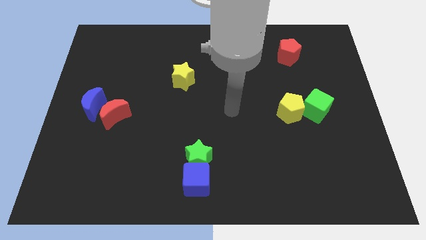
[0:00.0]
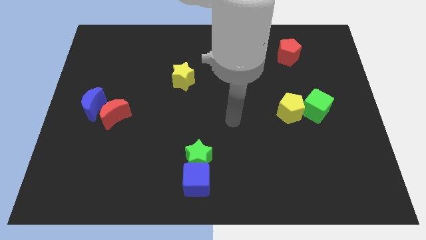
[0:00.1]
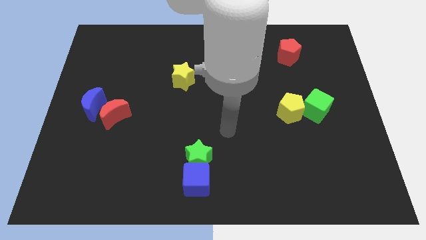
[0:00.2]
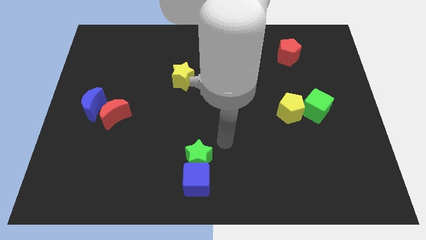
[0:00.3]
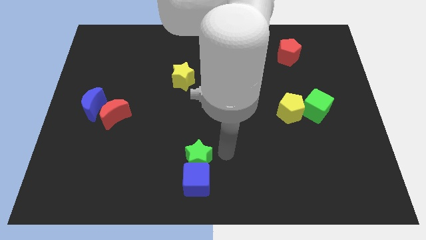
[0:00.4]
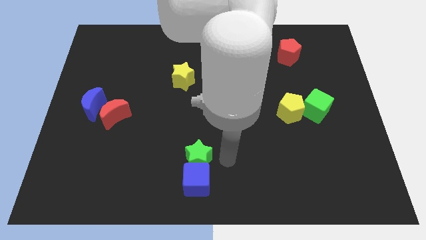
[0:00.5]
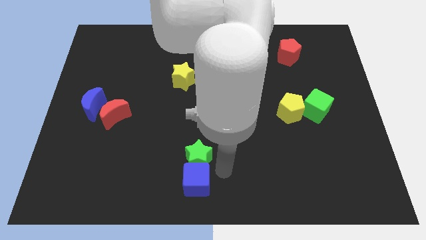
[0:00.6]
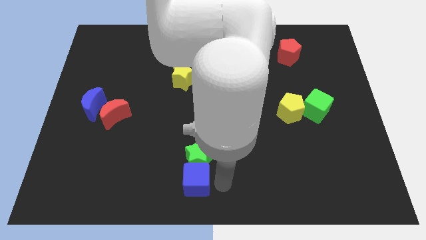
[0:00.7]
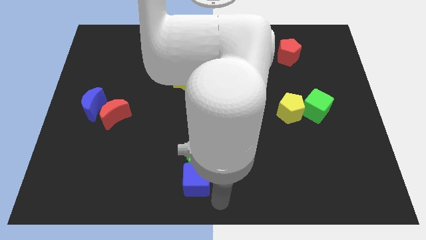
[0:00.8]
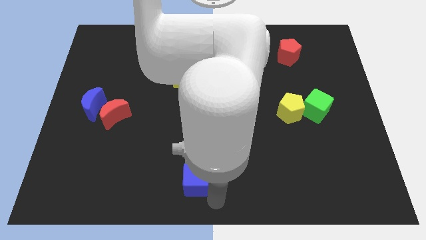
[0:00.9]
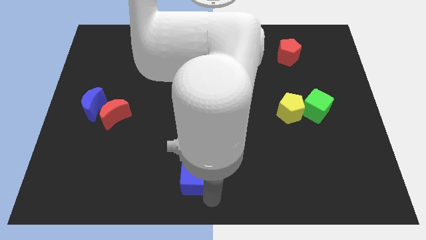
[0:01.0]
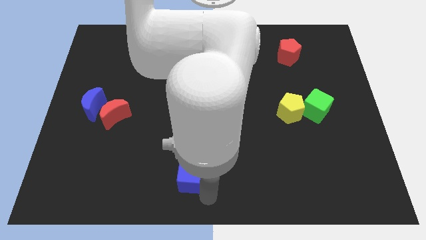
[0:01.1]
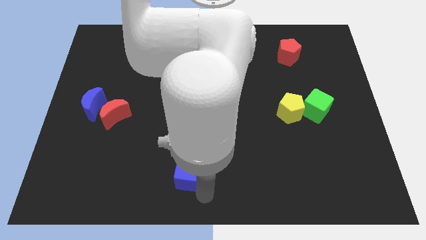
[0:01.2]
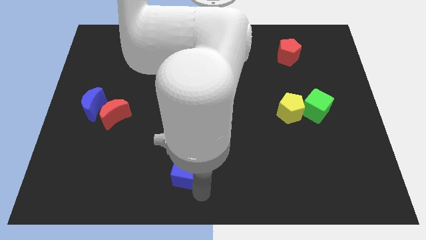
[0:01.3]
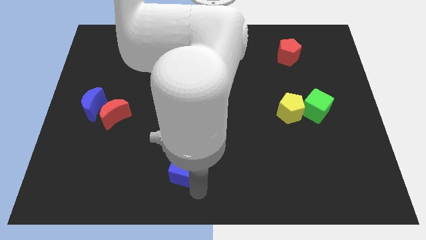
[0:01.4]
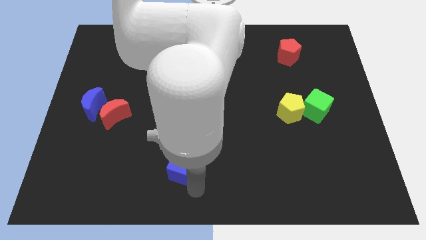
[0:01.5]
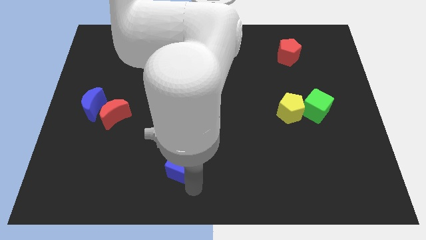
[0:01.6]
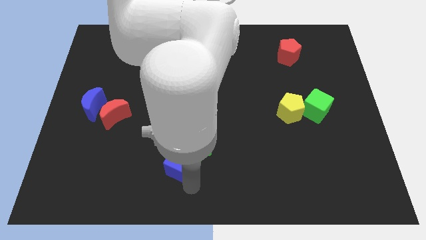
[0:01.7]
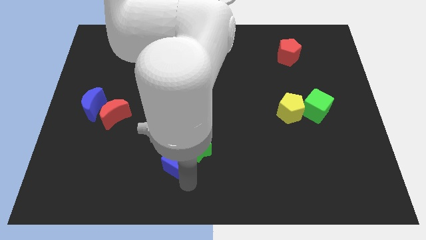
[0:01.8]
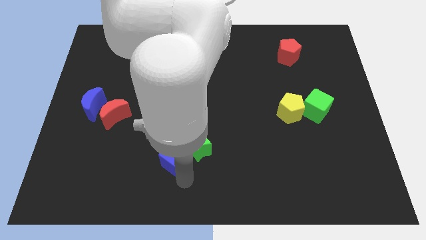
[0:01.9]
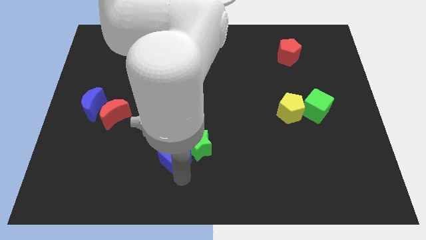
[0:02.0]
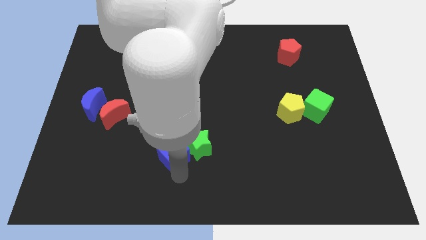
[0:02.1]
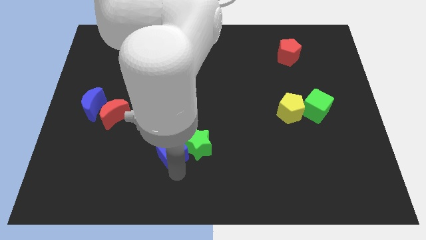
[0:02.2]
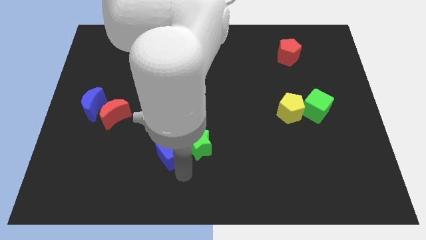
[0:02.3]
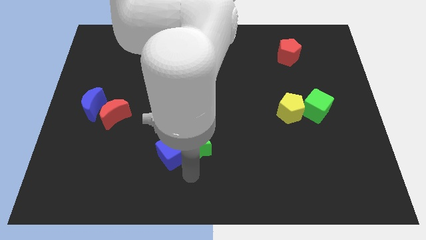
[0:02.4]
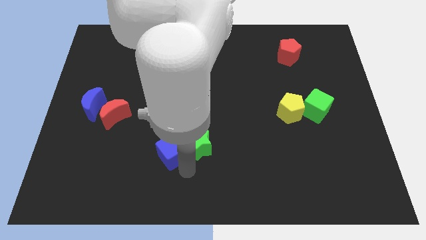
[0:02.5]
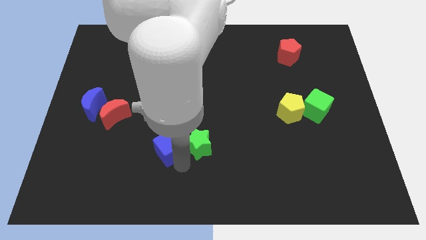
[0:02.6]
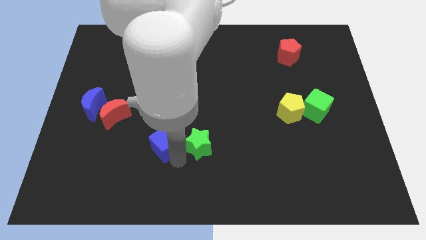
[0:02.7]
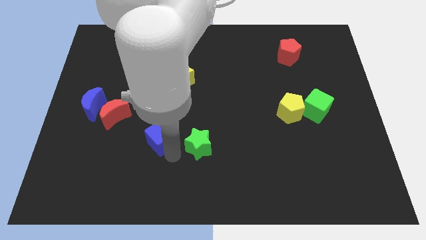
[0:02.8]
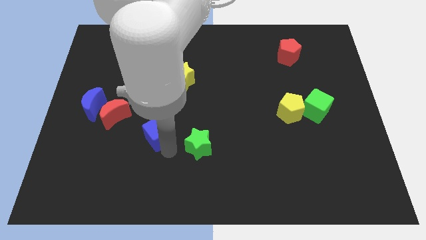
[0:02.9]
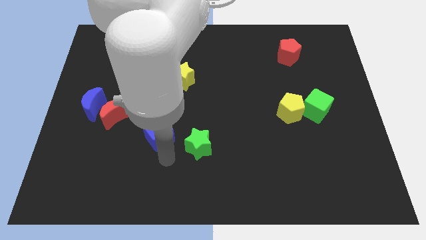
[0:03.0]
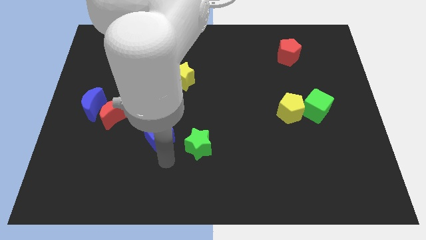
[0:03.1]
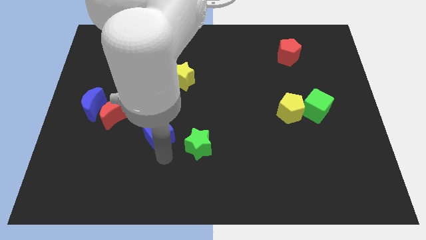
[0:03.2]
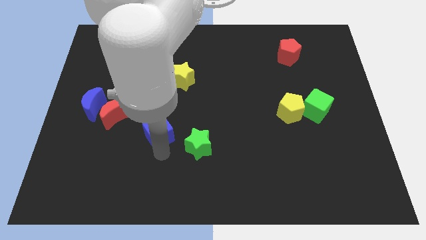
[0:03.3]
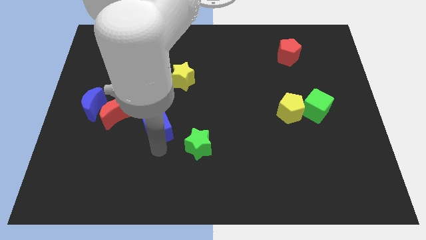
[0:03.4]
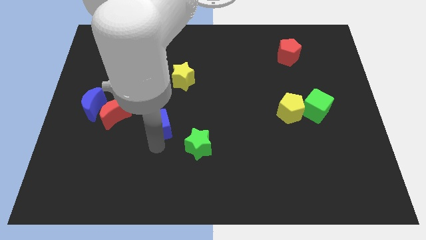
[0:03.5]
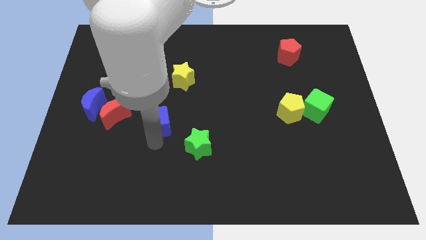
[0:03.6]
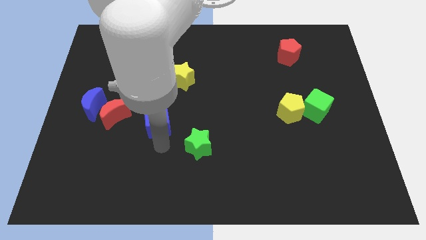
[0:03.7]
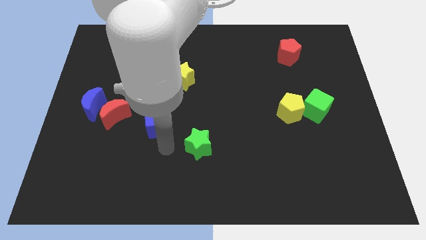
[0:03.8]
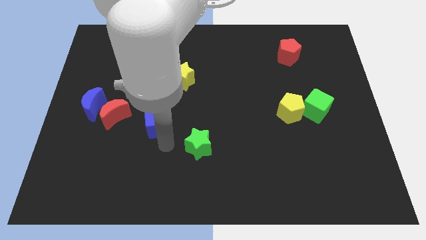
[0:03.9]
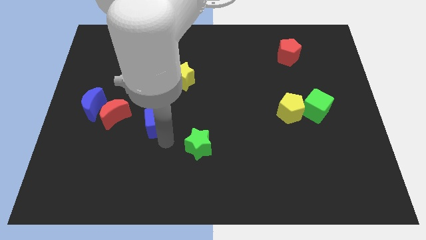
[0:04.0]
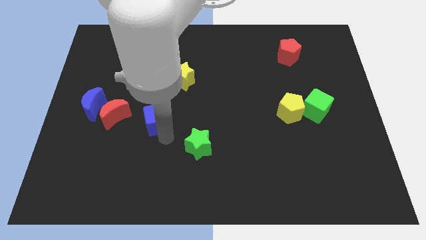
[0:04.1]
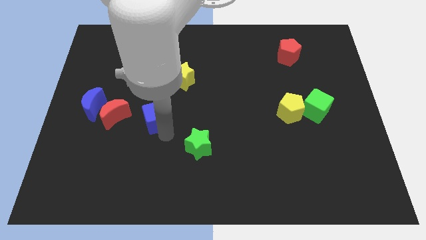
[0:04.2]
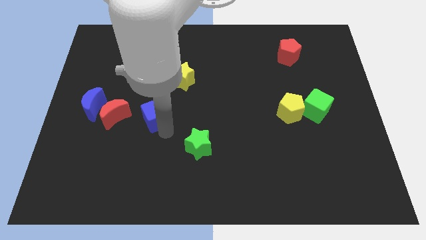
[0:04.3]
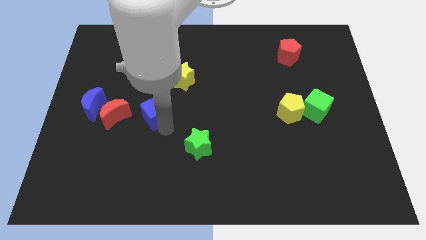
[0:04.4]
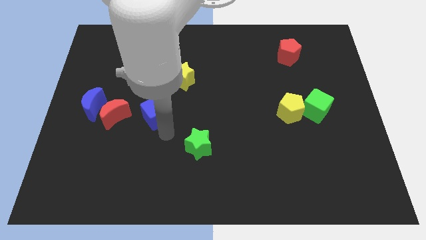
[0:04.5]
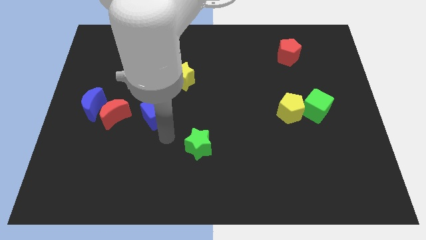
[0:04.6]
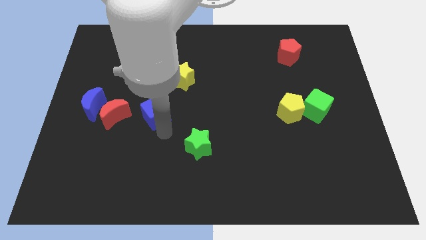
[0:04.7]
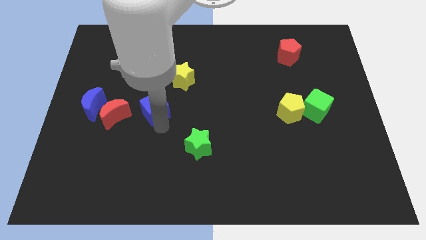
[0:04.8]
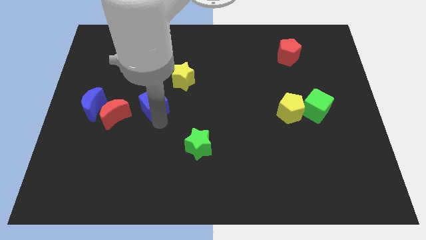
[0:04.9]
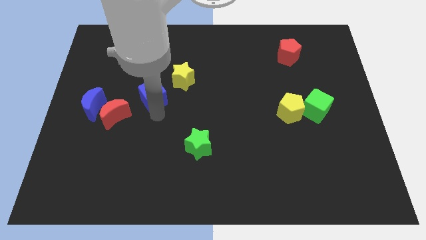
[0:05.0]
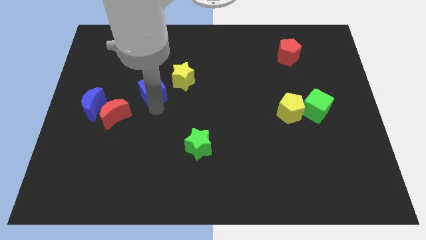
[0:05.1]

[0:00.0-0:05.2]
put the blue cube left of the yellow star

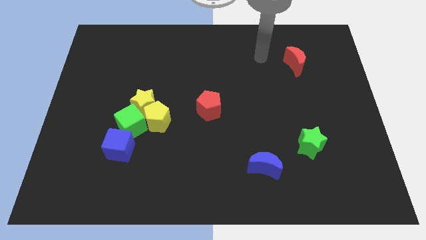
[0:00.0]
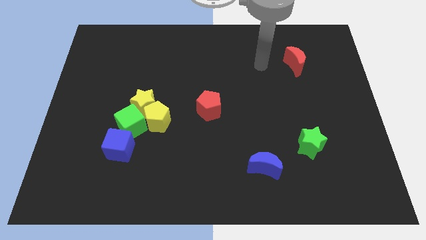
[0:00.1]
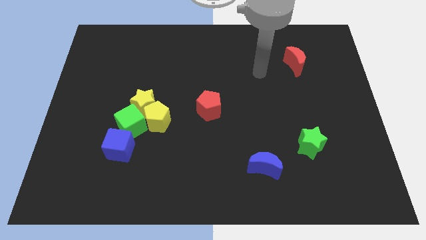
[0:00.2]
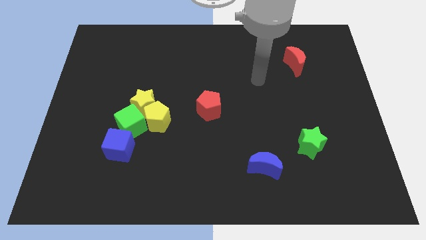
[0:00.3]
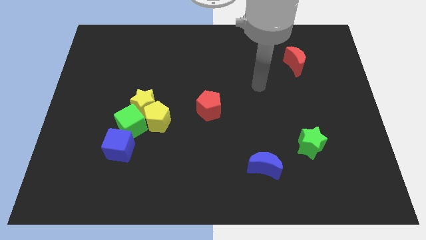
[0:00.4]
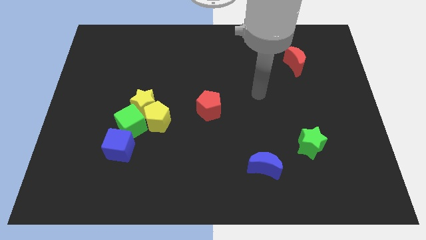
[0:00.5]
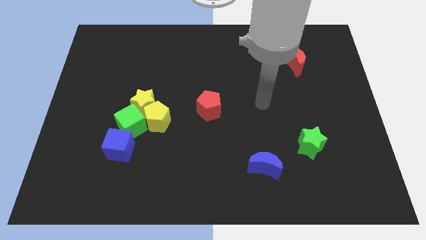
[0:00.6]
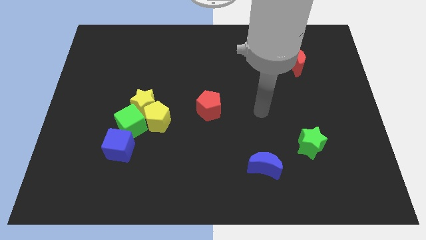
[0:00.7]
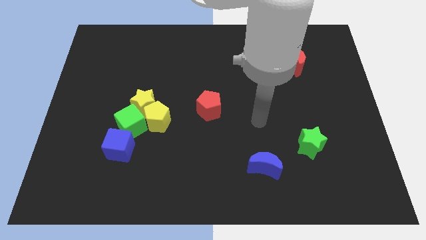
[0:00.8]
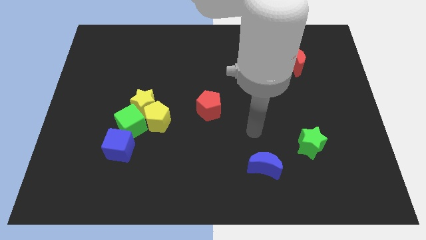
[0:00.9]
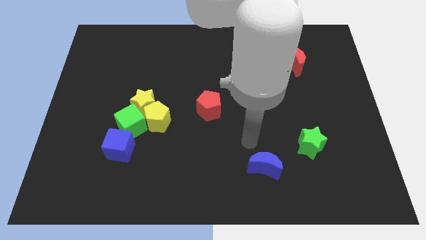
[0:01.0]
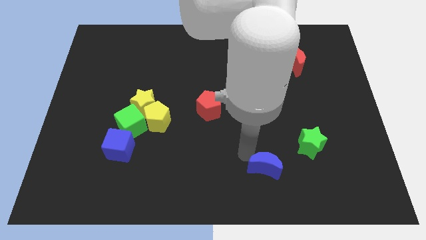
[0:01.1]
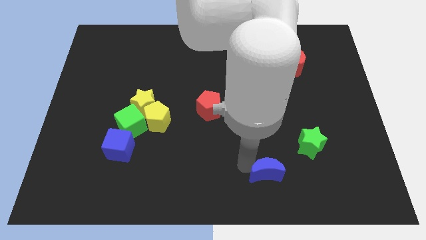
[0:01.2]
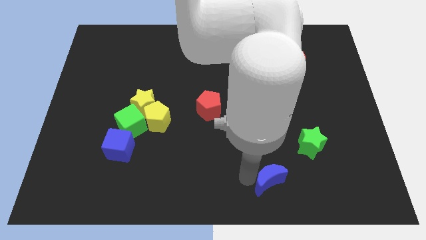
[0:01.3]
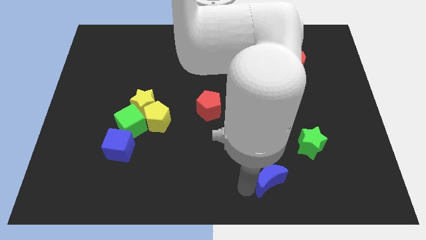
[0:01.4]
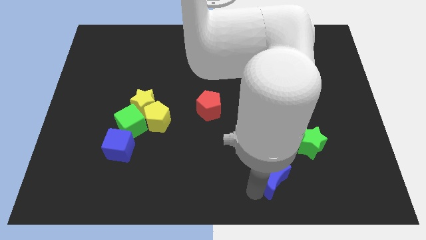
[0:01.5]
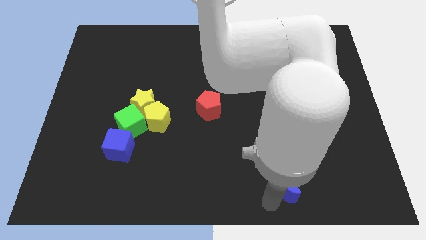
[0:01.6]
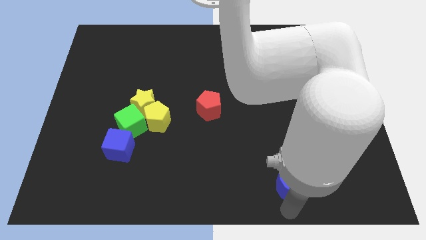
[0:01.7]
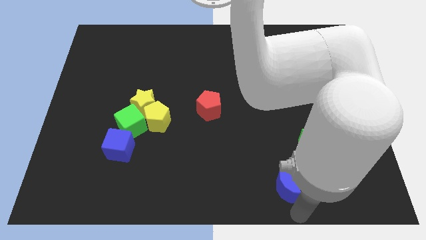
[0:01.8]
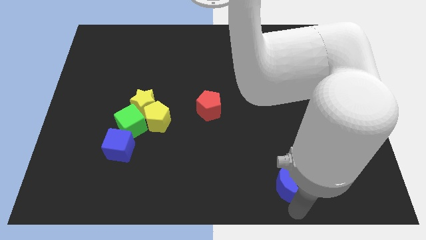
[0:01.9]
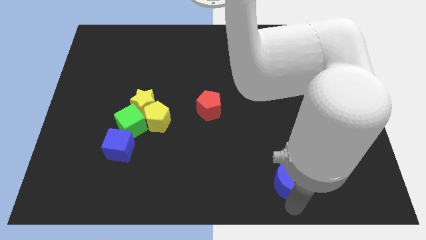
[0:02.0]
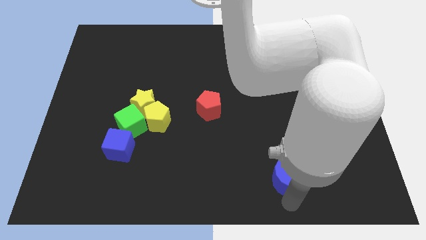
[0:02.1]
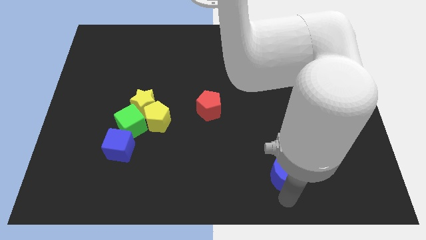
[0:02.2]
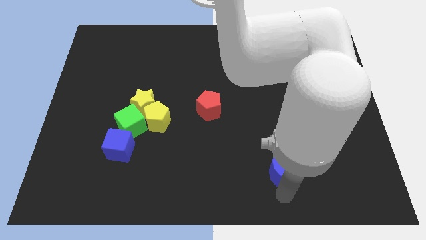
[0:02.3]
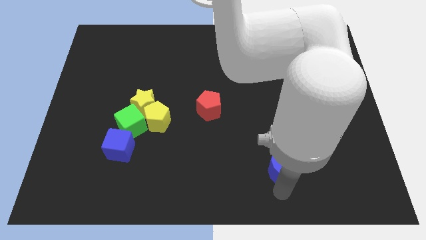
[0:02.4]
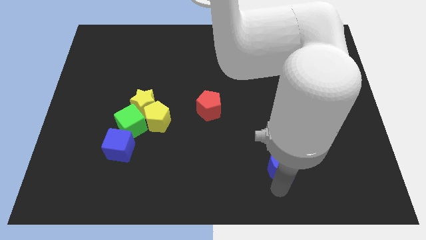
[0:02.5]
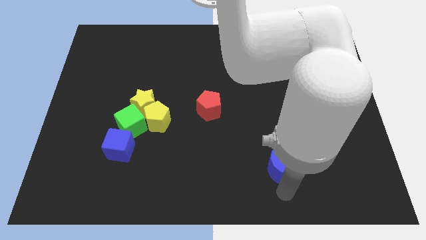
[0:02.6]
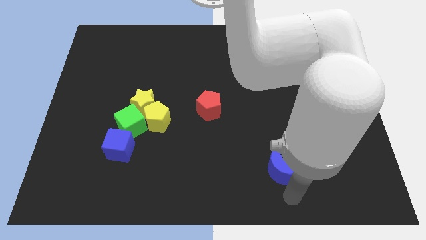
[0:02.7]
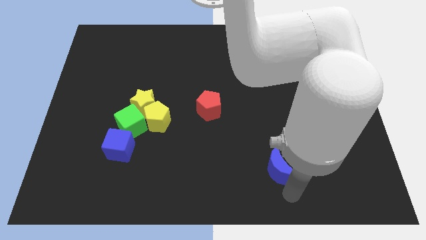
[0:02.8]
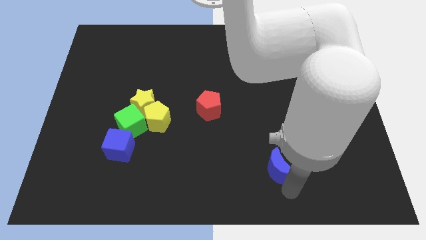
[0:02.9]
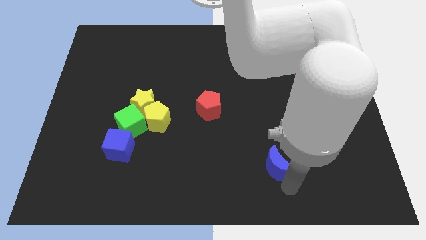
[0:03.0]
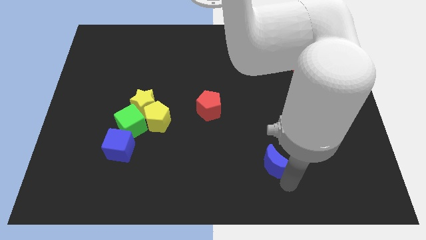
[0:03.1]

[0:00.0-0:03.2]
put the blue moon to the left side of the green star
